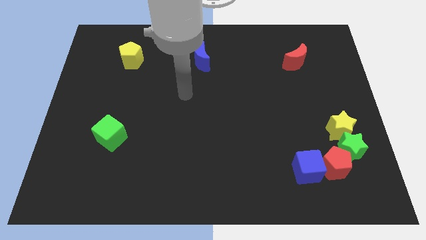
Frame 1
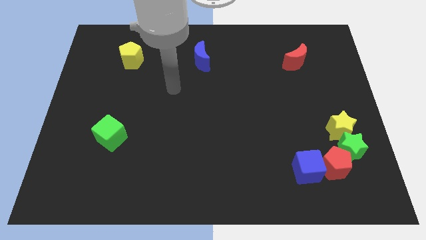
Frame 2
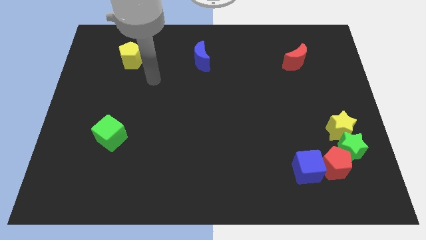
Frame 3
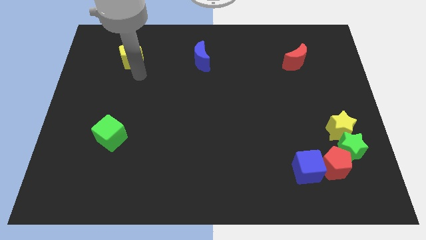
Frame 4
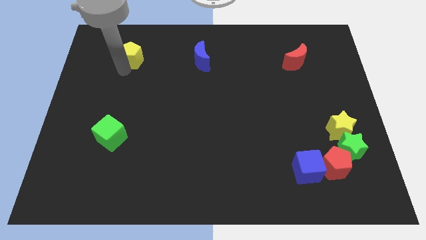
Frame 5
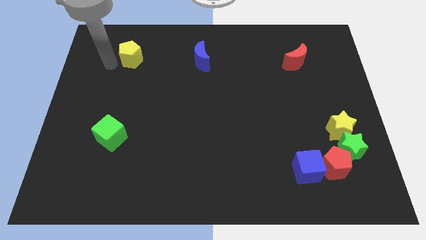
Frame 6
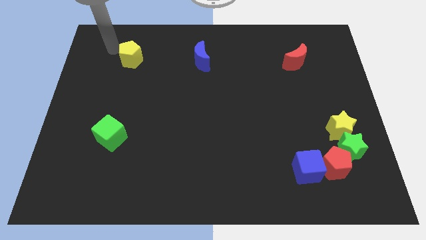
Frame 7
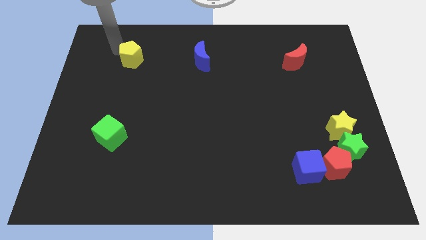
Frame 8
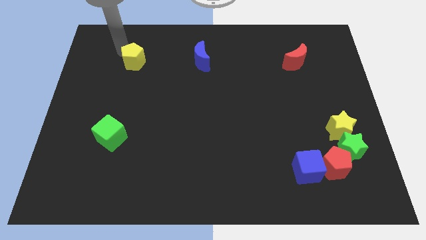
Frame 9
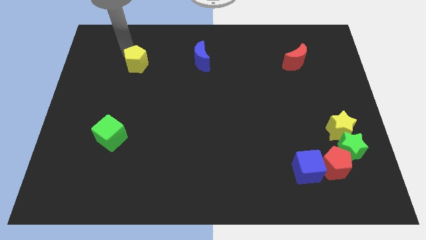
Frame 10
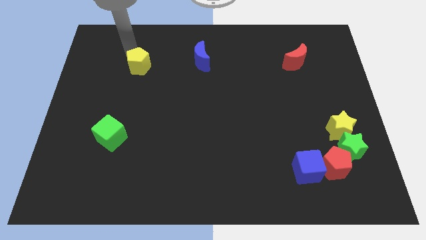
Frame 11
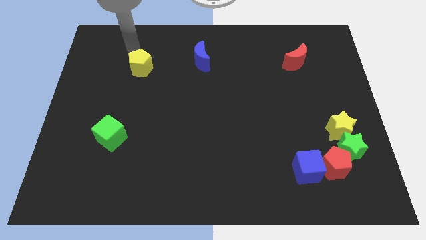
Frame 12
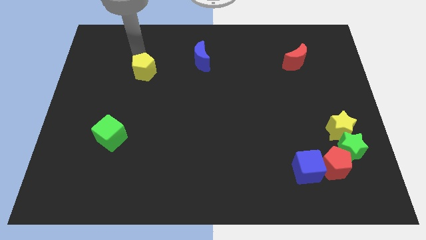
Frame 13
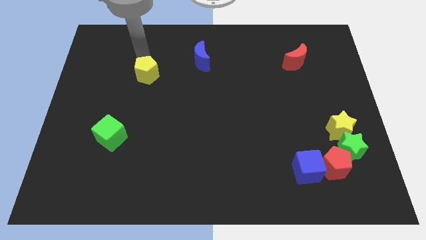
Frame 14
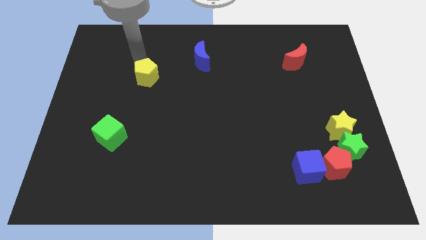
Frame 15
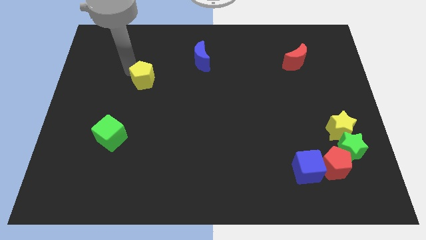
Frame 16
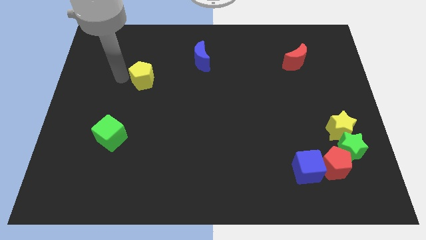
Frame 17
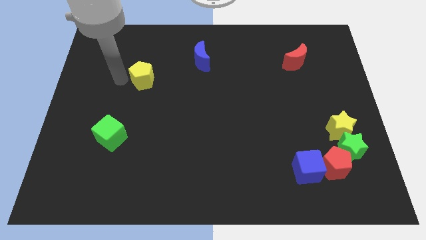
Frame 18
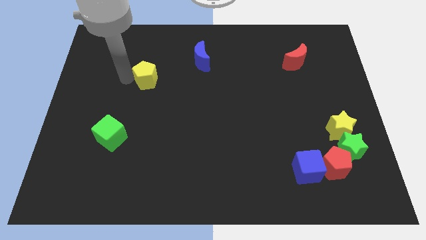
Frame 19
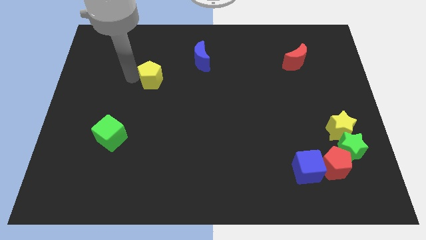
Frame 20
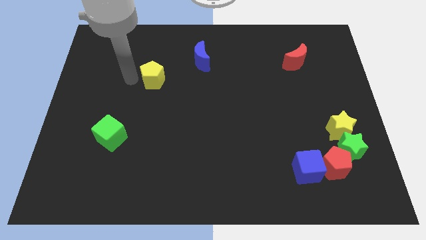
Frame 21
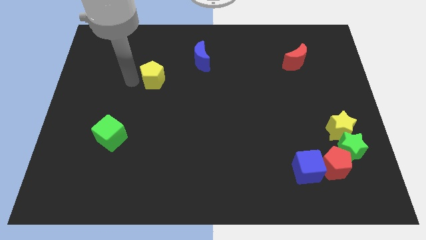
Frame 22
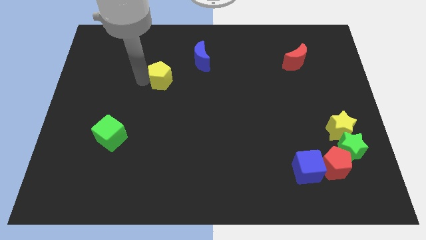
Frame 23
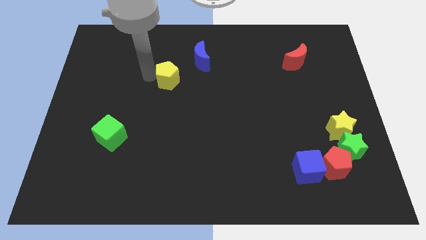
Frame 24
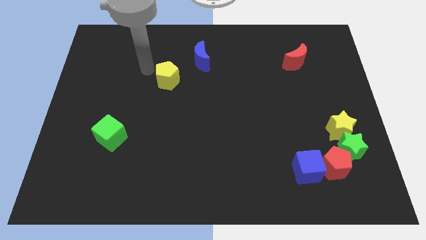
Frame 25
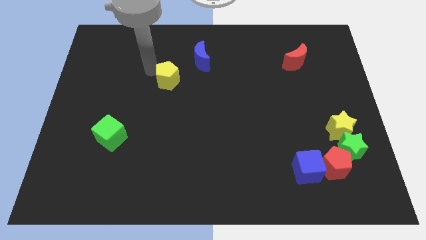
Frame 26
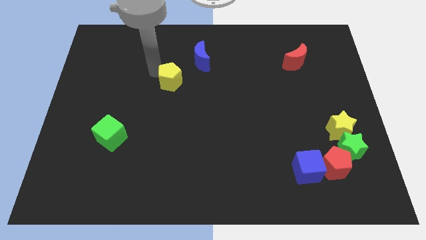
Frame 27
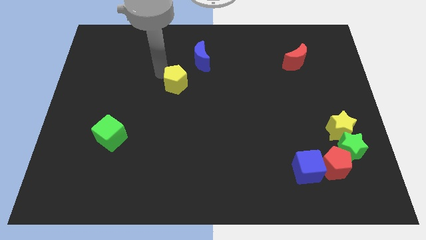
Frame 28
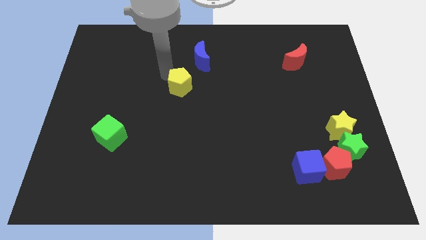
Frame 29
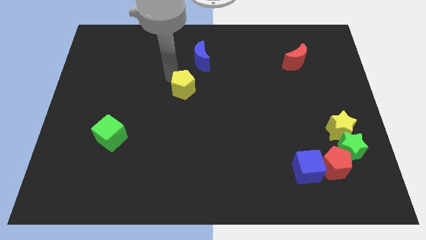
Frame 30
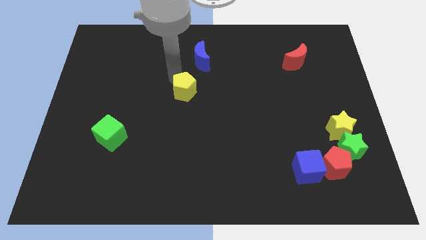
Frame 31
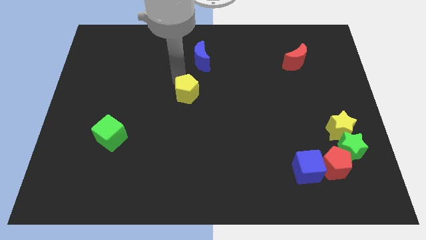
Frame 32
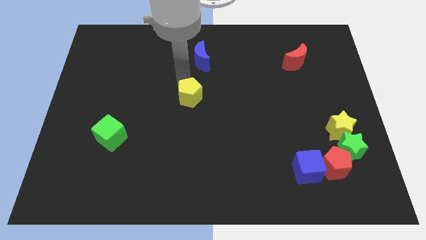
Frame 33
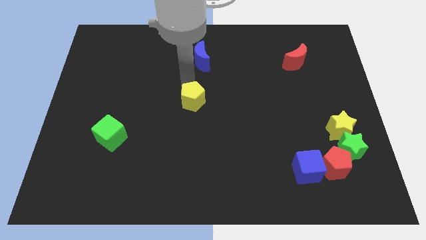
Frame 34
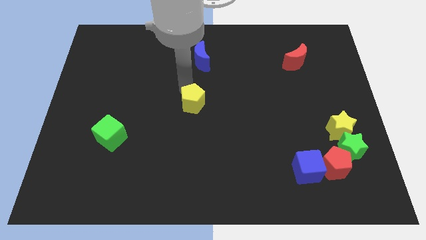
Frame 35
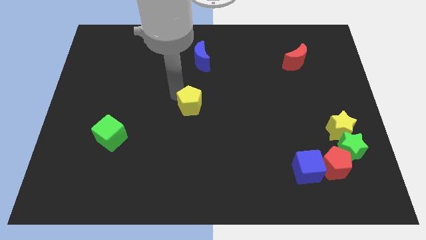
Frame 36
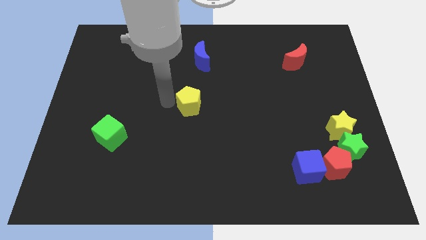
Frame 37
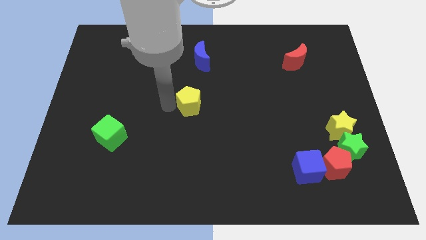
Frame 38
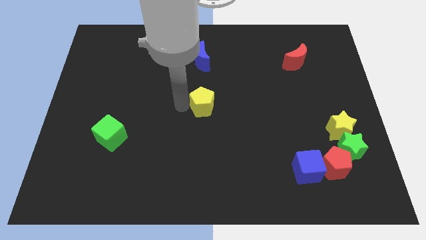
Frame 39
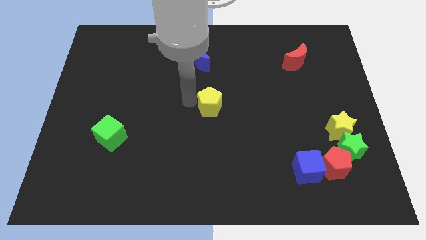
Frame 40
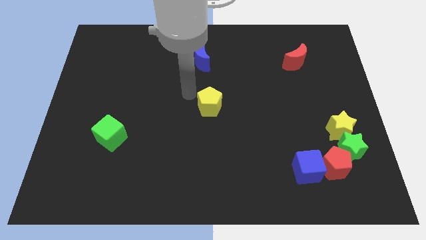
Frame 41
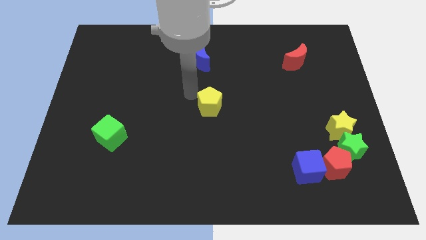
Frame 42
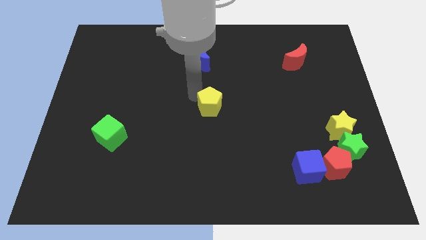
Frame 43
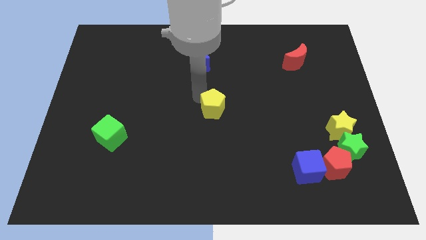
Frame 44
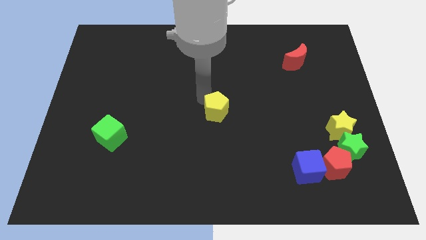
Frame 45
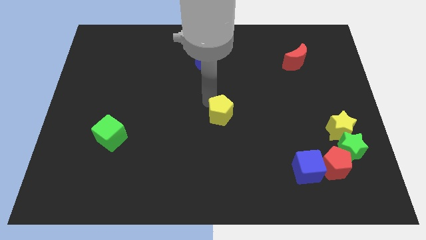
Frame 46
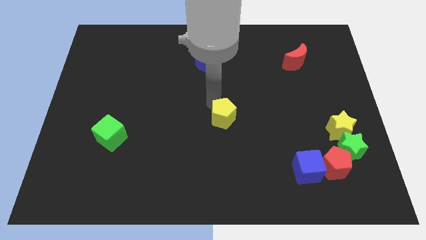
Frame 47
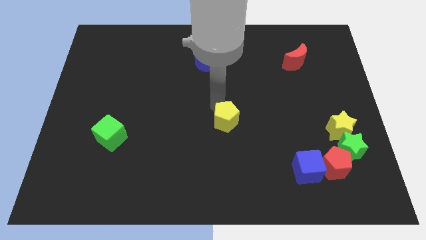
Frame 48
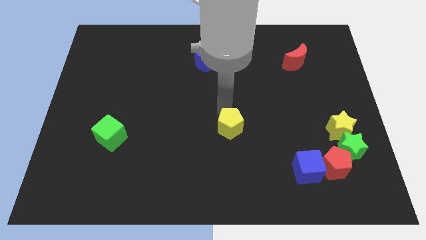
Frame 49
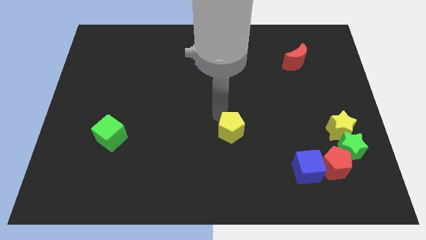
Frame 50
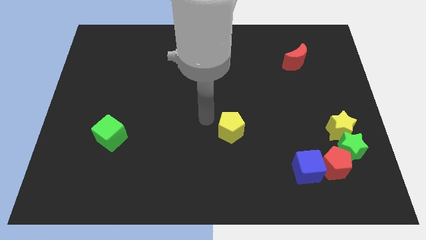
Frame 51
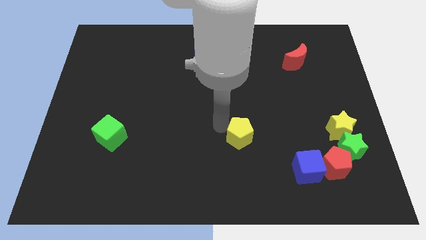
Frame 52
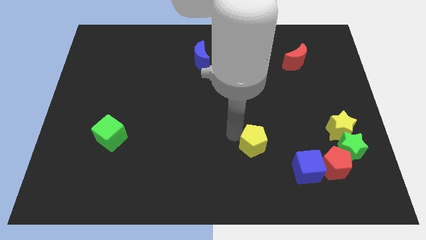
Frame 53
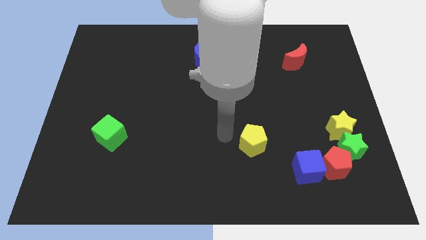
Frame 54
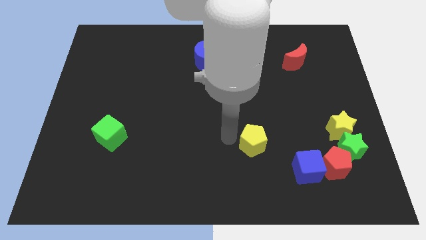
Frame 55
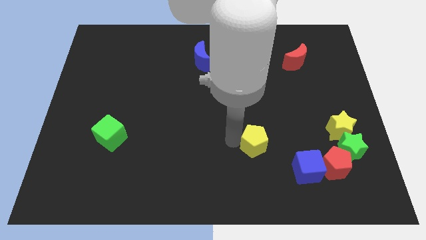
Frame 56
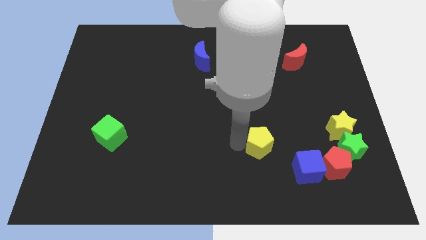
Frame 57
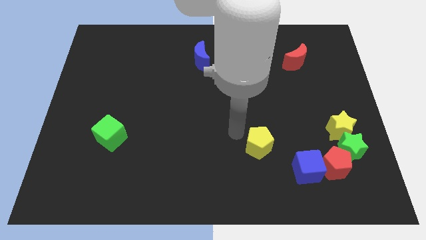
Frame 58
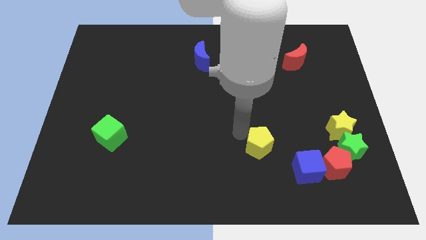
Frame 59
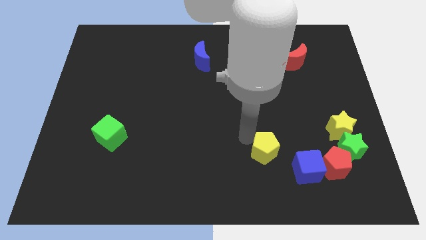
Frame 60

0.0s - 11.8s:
put the yellow pentagon to the left of the red pentagon

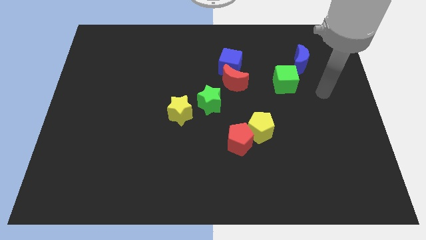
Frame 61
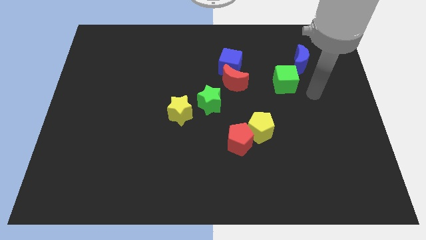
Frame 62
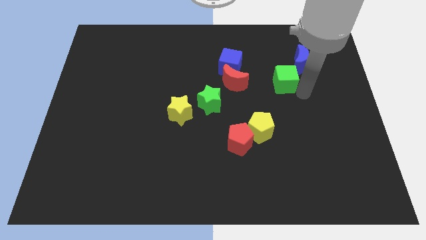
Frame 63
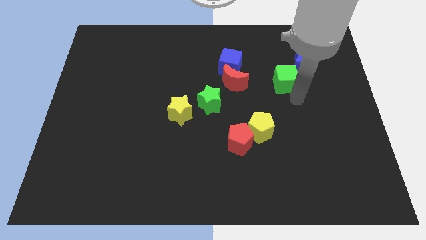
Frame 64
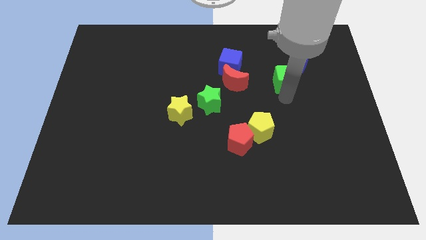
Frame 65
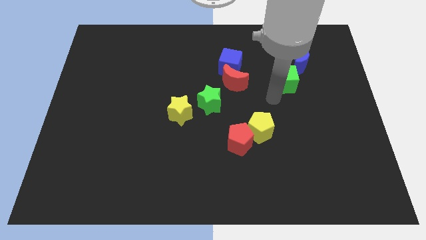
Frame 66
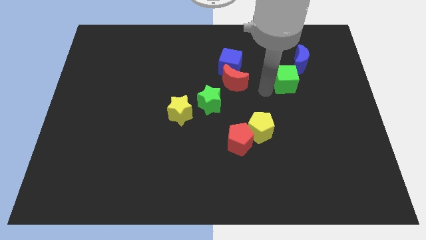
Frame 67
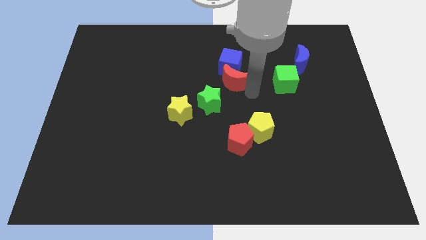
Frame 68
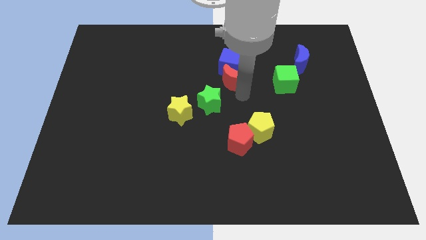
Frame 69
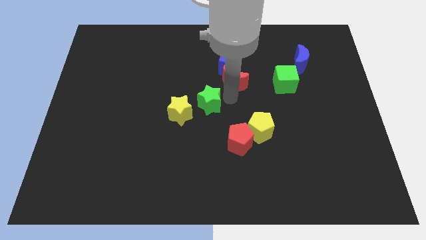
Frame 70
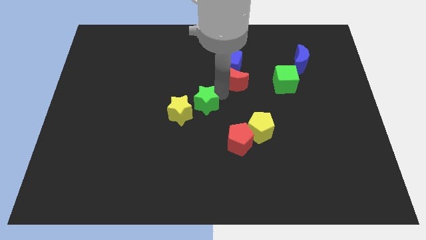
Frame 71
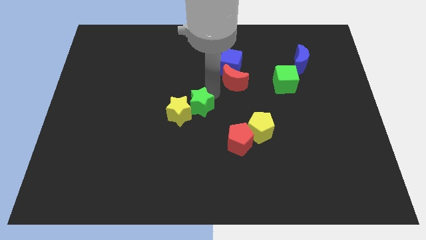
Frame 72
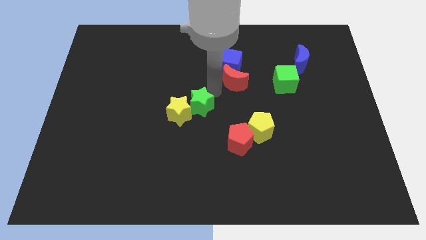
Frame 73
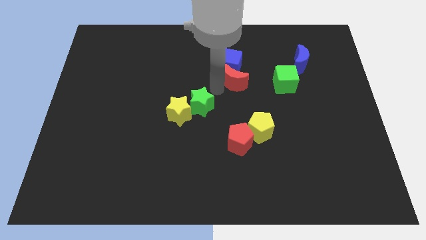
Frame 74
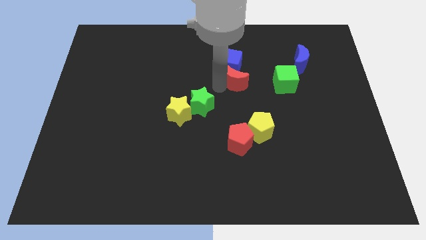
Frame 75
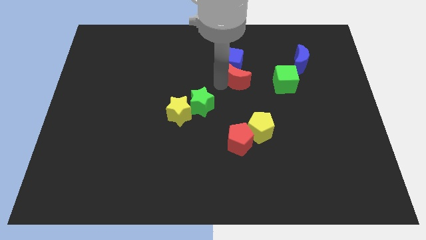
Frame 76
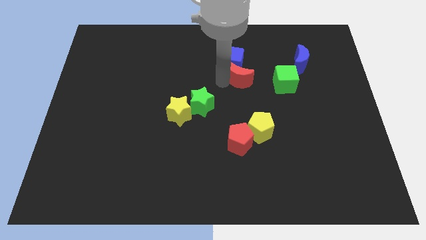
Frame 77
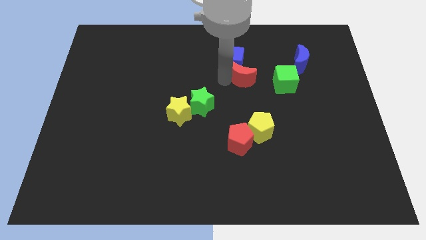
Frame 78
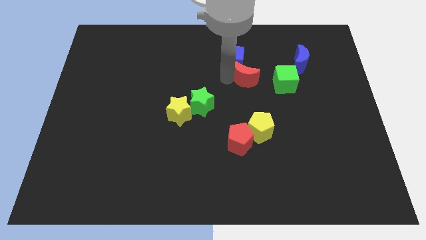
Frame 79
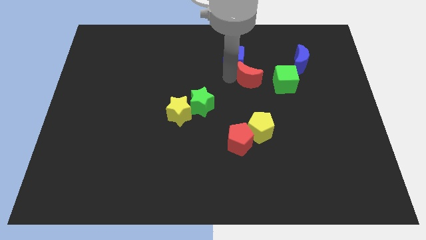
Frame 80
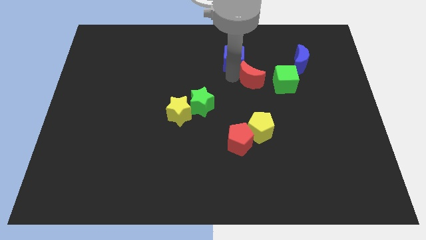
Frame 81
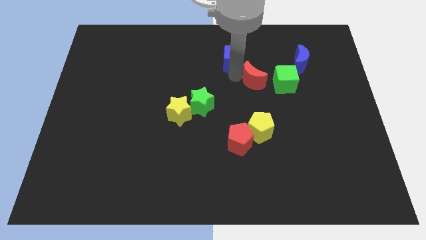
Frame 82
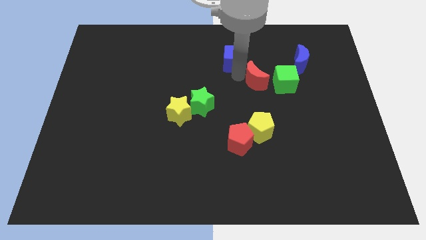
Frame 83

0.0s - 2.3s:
put the red moon to the top left side of the green cube
